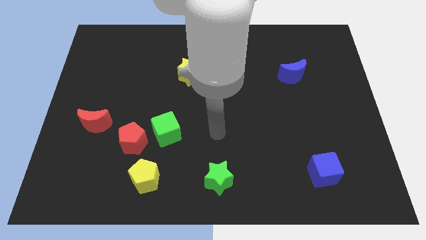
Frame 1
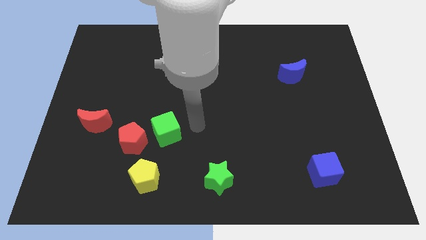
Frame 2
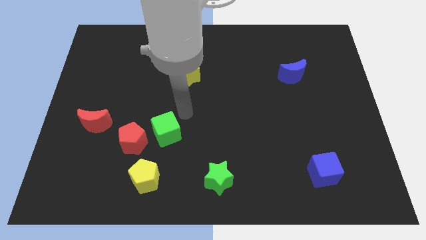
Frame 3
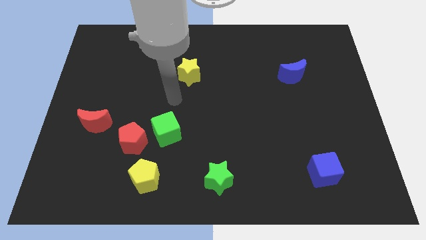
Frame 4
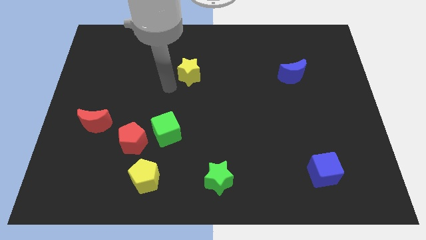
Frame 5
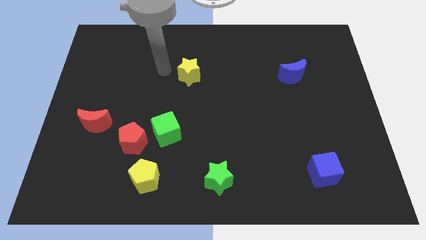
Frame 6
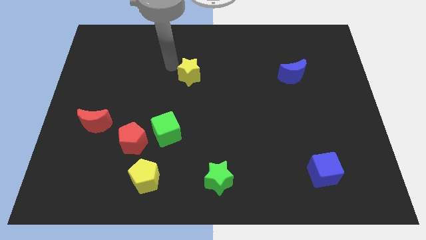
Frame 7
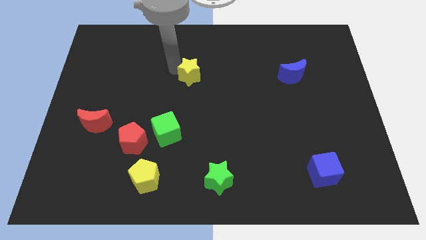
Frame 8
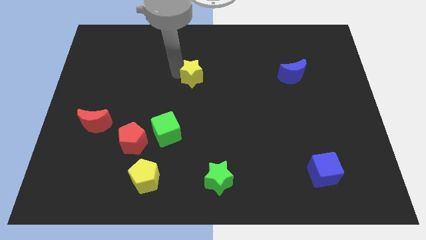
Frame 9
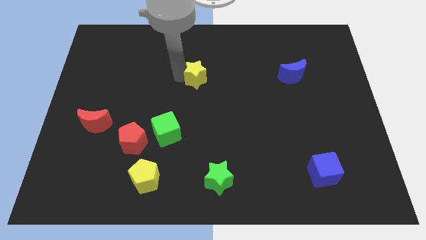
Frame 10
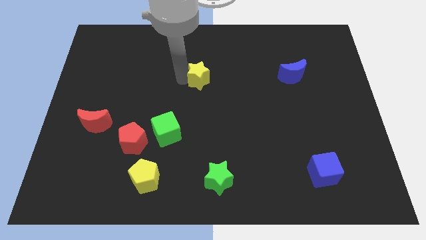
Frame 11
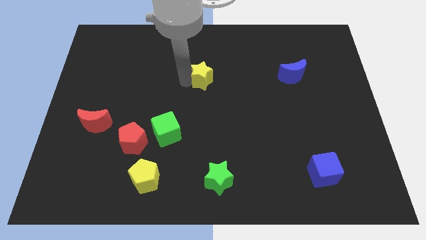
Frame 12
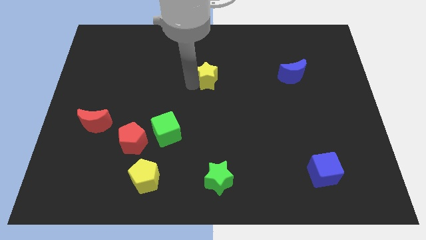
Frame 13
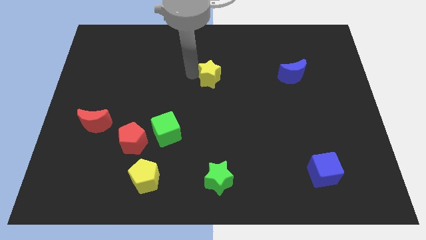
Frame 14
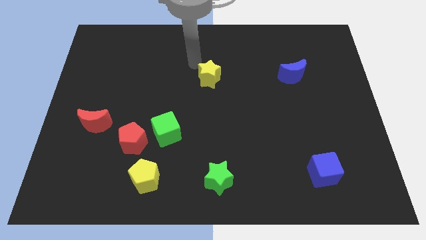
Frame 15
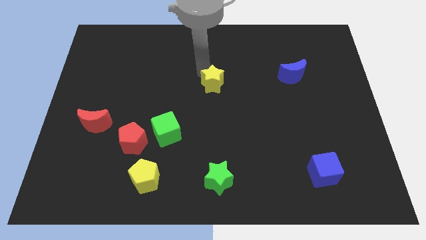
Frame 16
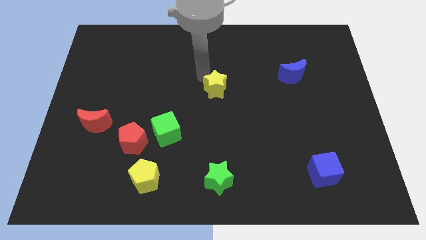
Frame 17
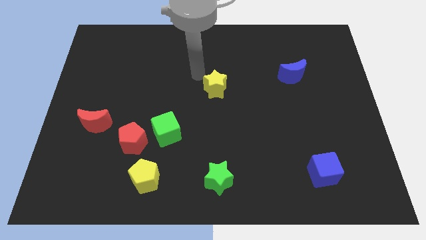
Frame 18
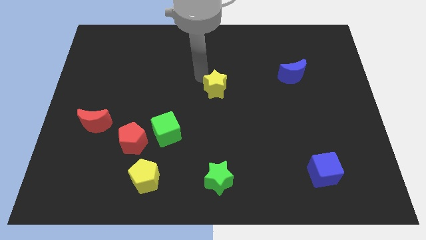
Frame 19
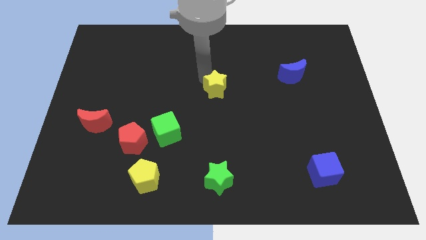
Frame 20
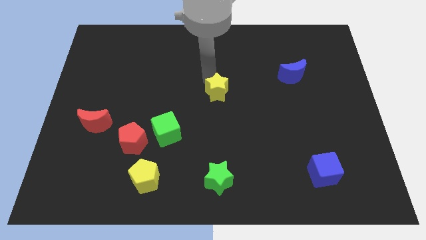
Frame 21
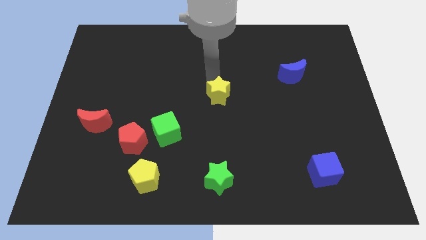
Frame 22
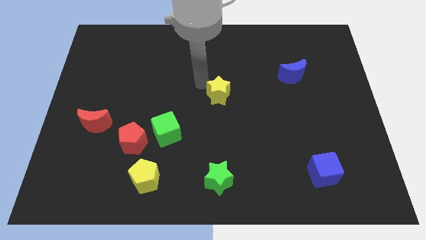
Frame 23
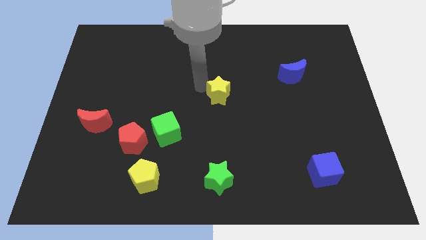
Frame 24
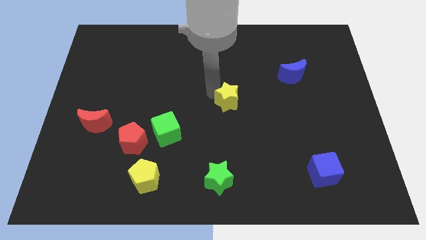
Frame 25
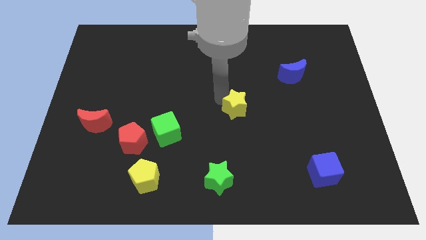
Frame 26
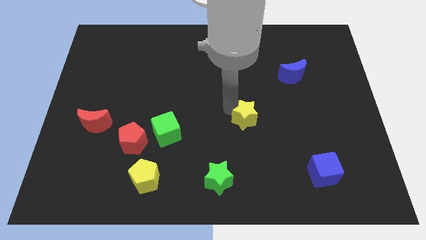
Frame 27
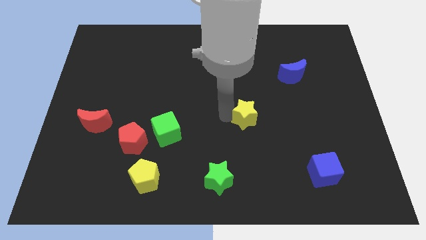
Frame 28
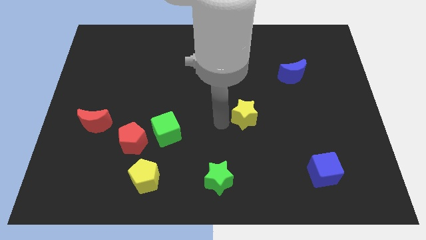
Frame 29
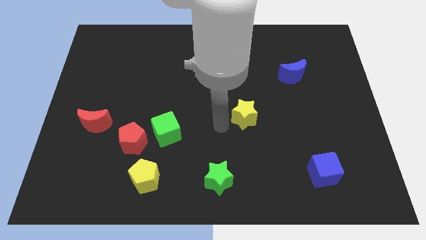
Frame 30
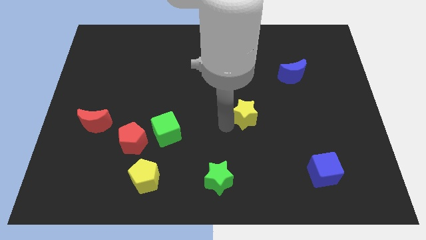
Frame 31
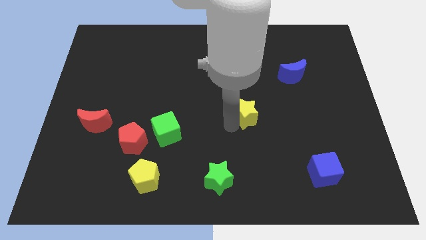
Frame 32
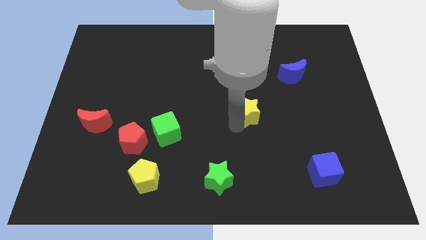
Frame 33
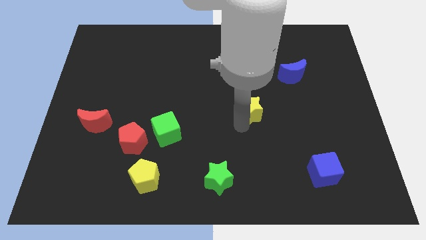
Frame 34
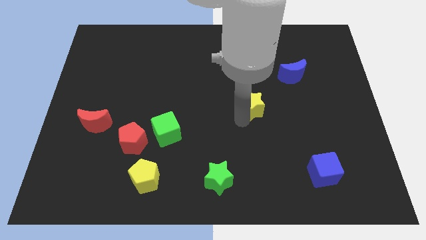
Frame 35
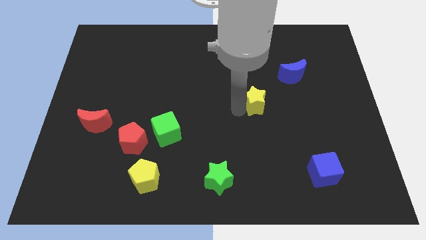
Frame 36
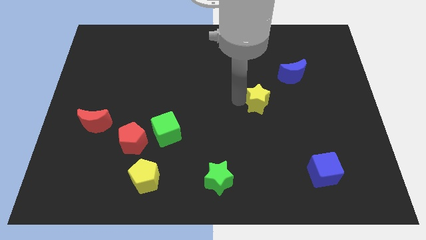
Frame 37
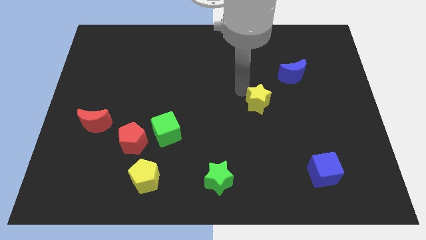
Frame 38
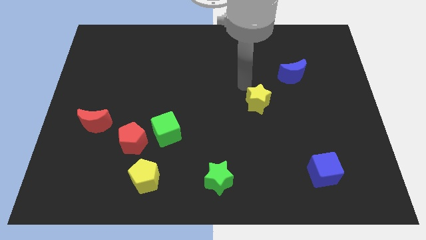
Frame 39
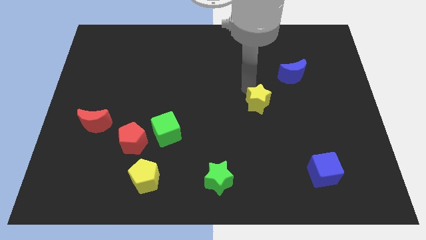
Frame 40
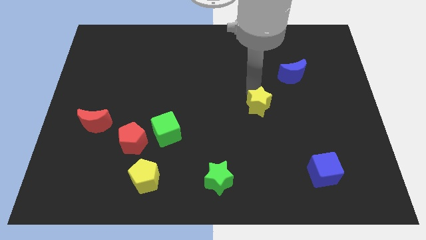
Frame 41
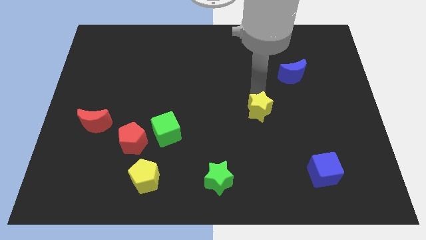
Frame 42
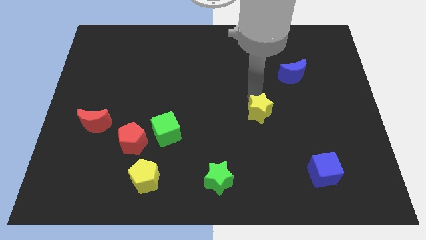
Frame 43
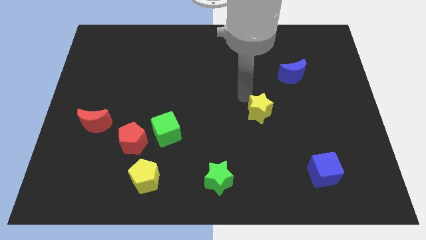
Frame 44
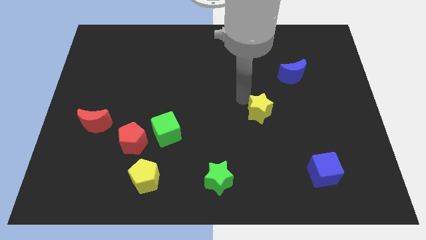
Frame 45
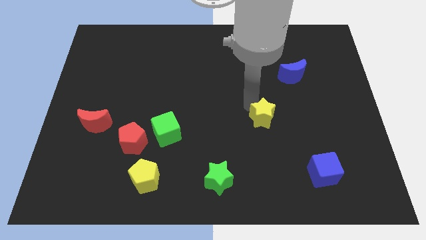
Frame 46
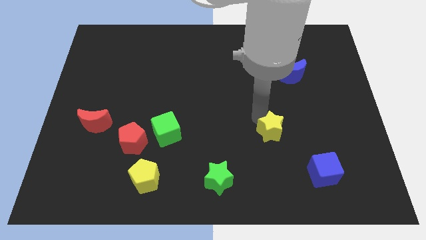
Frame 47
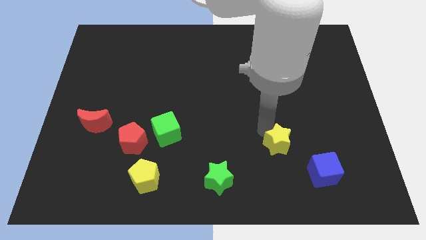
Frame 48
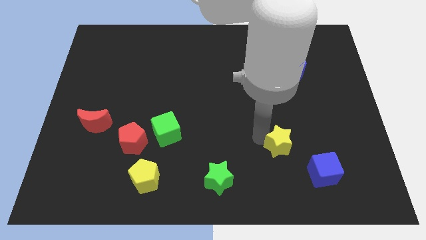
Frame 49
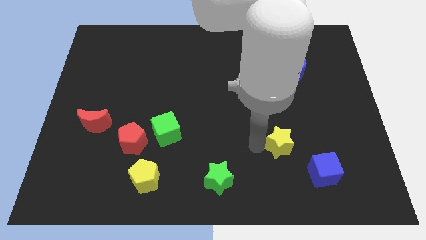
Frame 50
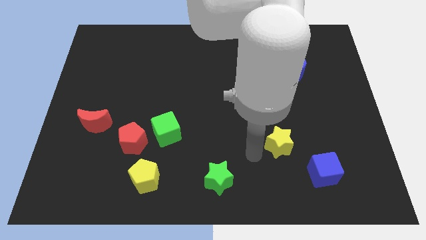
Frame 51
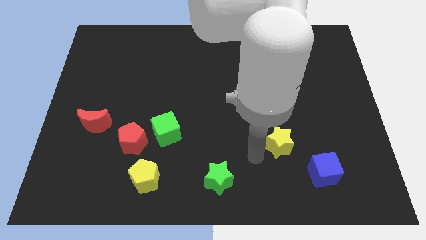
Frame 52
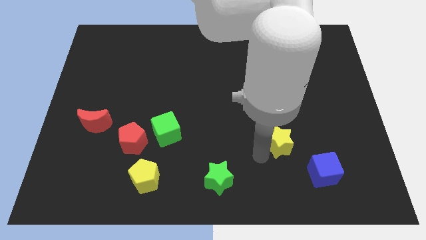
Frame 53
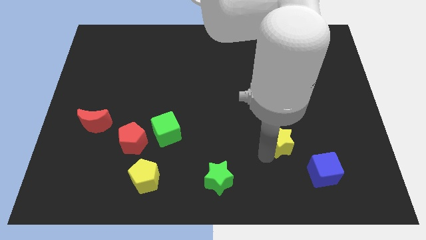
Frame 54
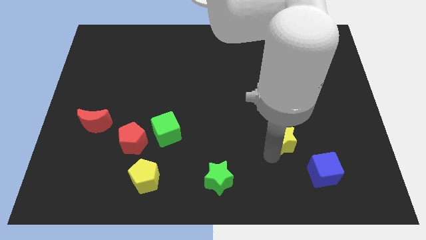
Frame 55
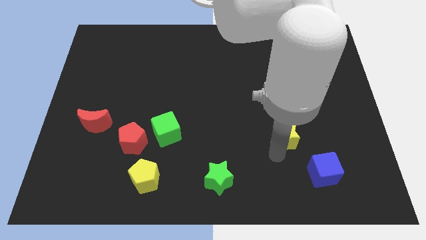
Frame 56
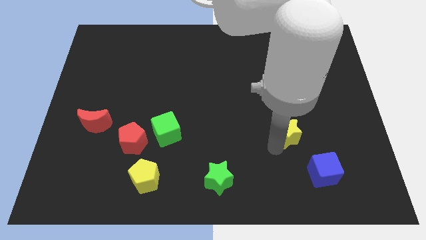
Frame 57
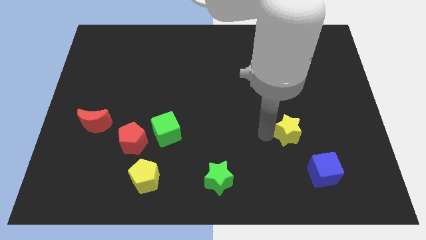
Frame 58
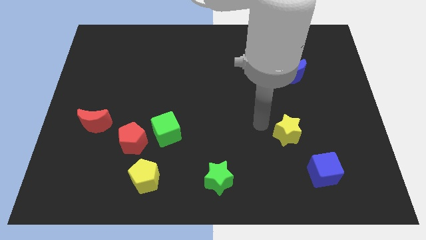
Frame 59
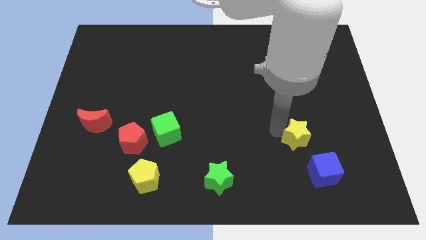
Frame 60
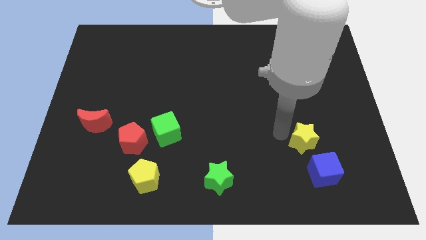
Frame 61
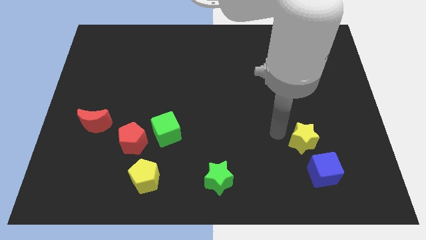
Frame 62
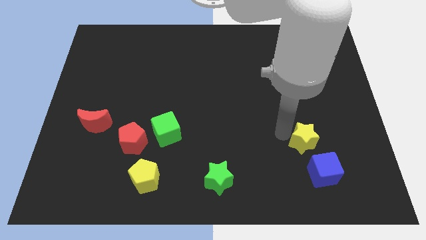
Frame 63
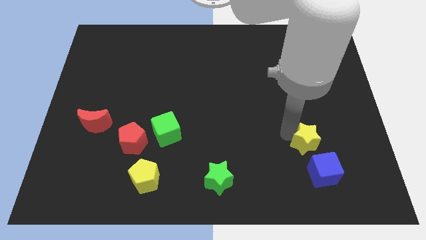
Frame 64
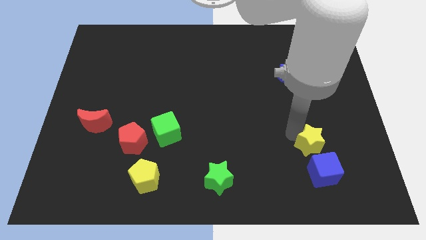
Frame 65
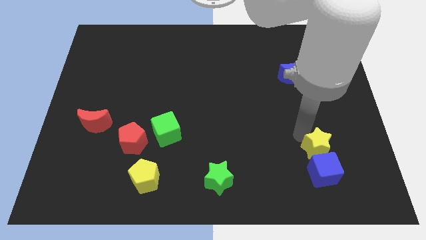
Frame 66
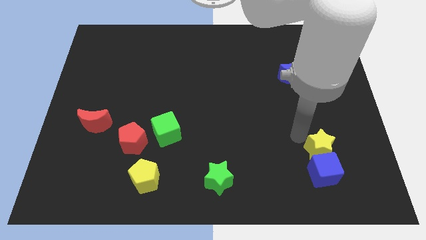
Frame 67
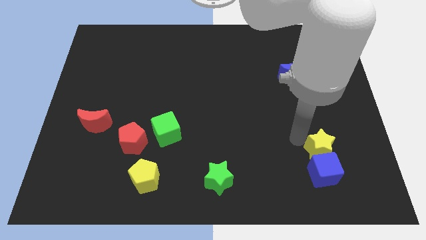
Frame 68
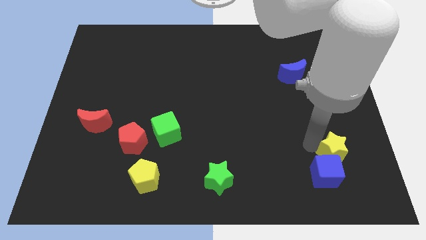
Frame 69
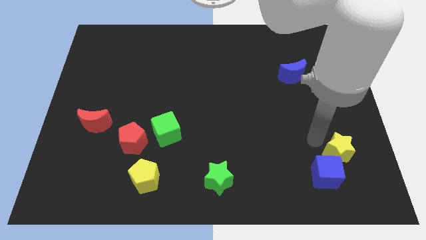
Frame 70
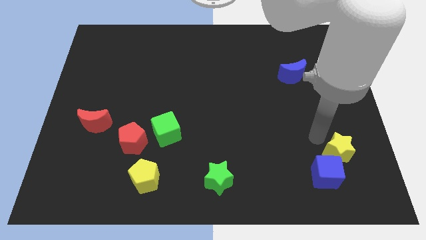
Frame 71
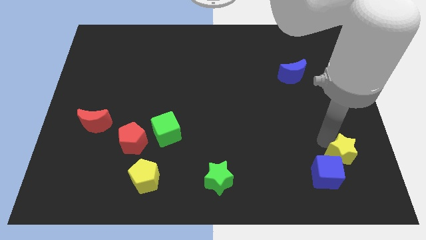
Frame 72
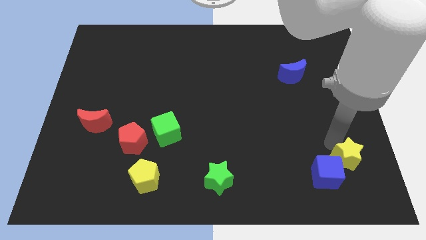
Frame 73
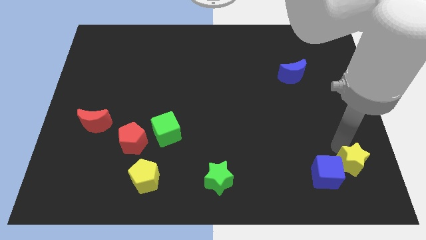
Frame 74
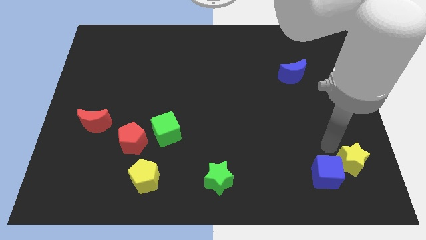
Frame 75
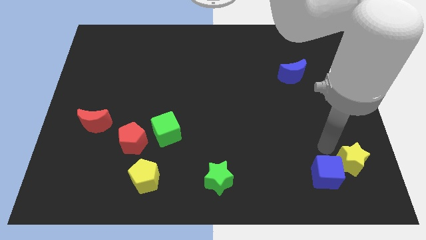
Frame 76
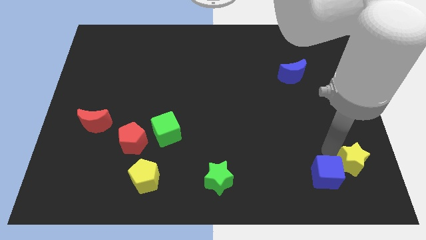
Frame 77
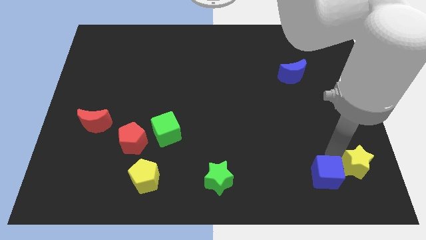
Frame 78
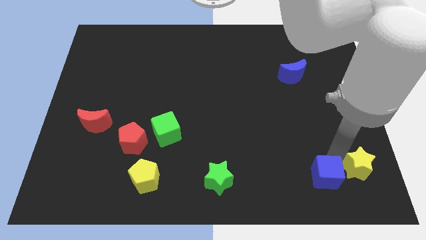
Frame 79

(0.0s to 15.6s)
push the yellow star to the bottom right of the board
